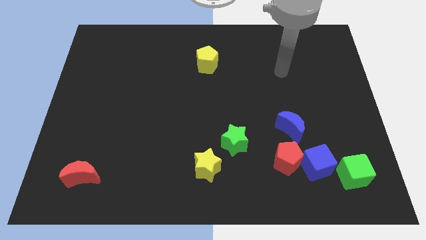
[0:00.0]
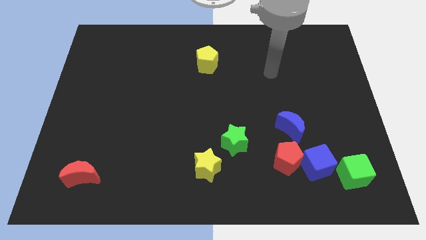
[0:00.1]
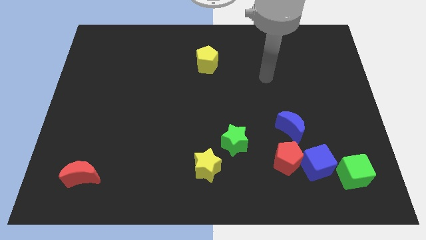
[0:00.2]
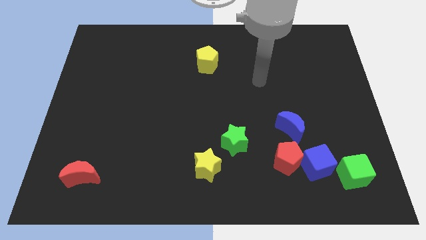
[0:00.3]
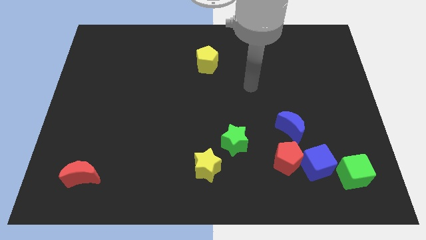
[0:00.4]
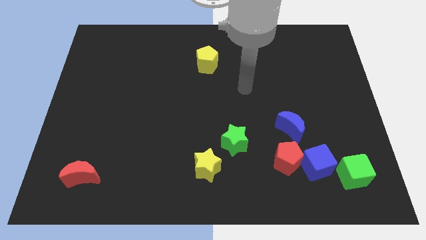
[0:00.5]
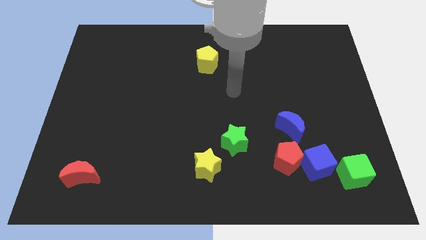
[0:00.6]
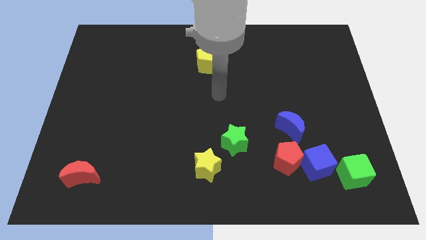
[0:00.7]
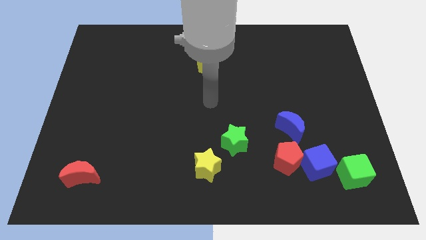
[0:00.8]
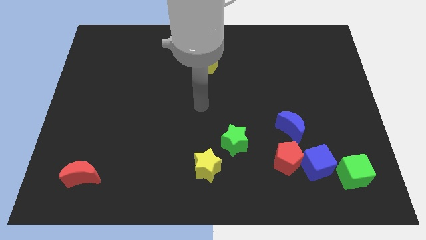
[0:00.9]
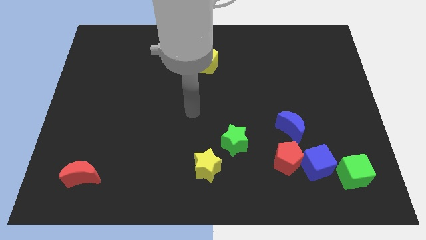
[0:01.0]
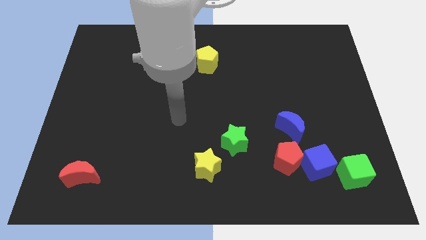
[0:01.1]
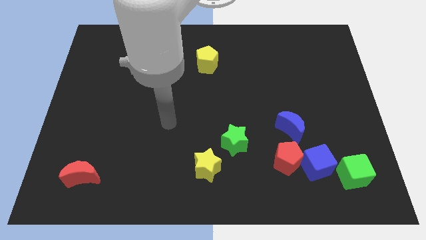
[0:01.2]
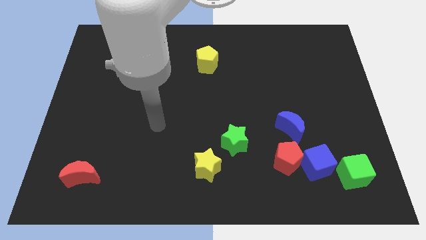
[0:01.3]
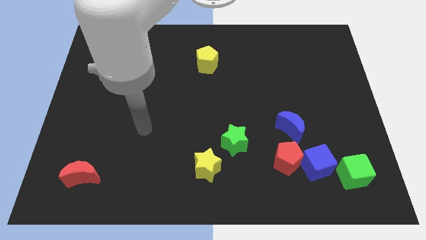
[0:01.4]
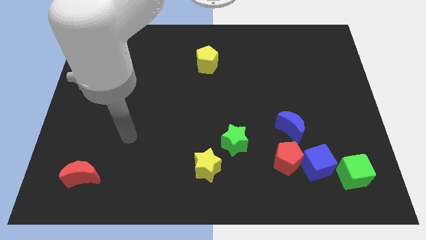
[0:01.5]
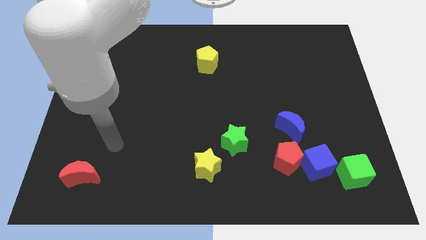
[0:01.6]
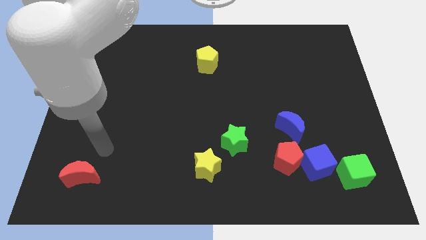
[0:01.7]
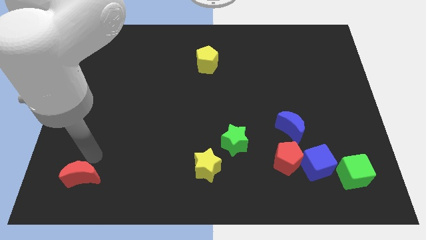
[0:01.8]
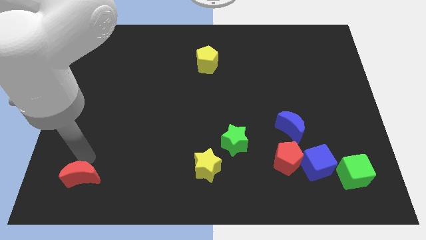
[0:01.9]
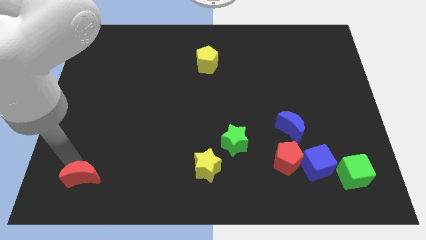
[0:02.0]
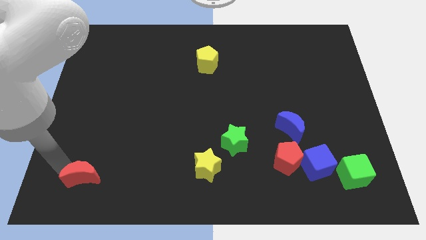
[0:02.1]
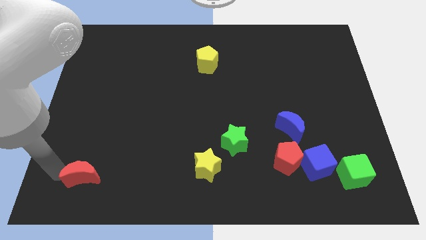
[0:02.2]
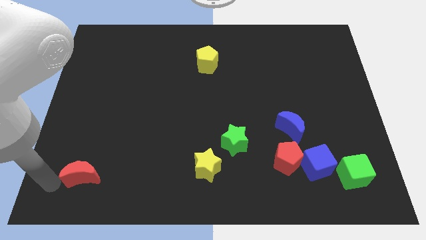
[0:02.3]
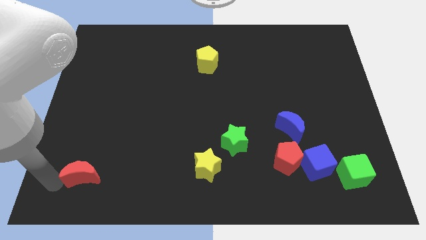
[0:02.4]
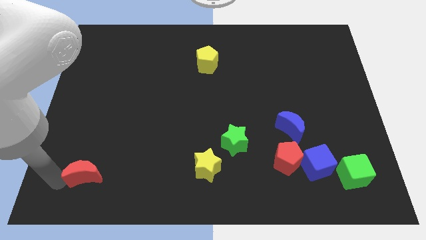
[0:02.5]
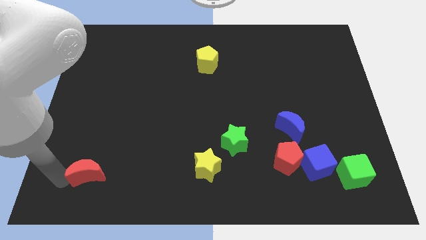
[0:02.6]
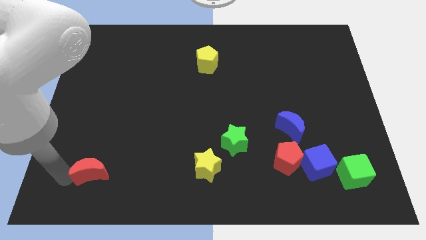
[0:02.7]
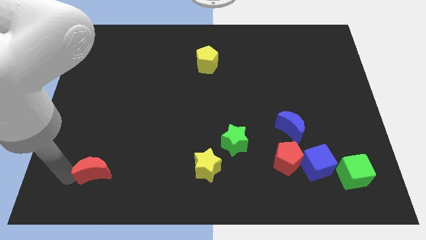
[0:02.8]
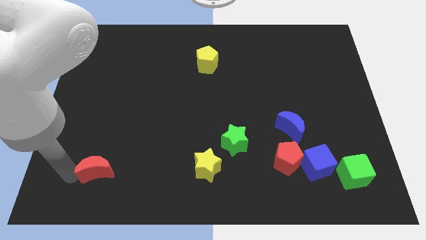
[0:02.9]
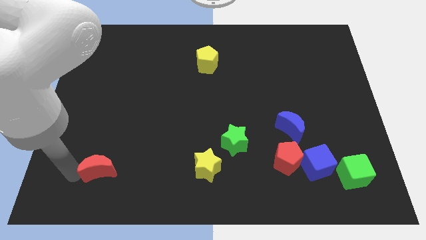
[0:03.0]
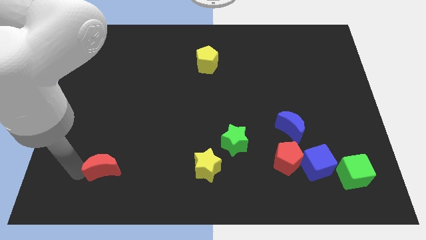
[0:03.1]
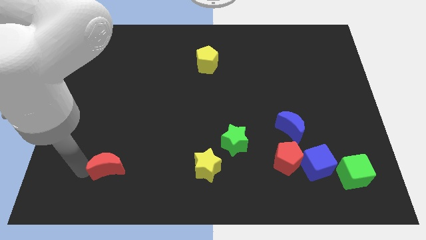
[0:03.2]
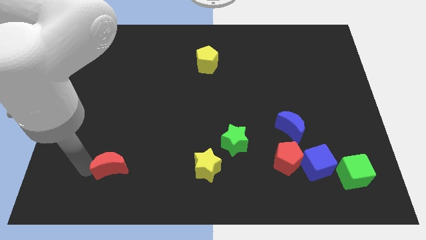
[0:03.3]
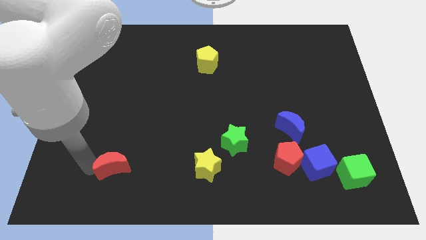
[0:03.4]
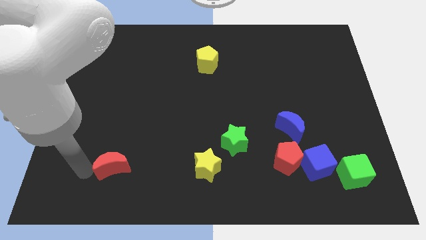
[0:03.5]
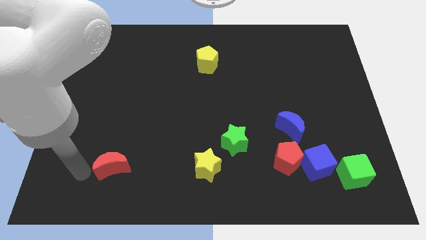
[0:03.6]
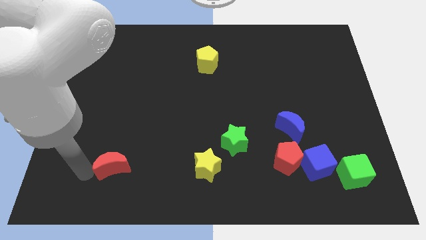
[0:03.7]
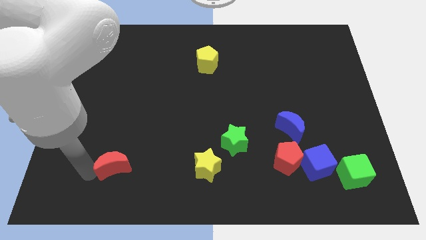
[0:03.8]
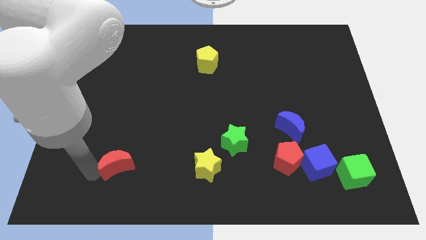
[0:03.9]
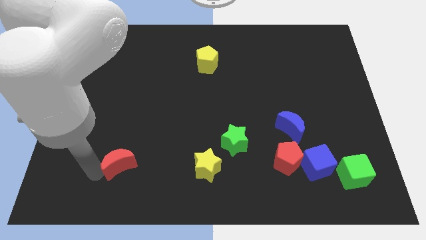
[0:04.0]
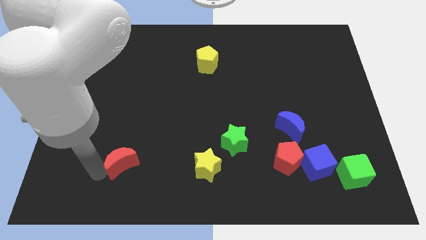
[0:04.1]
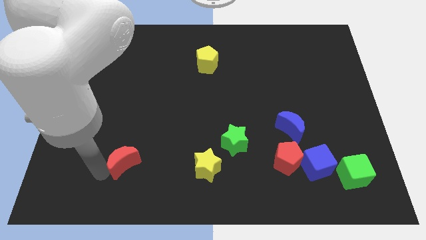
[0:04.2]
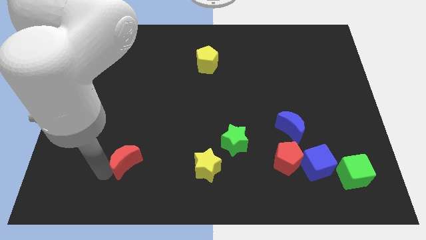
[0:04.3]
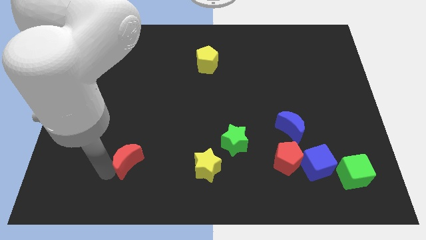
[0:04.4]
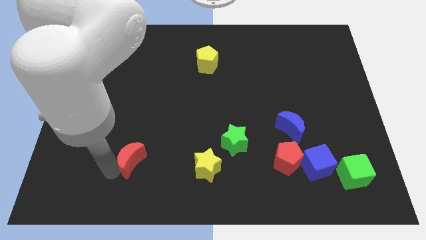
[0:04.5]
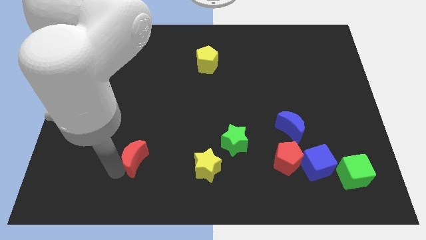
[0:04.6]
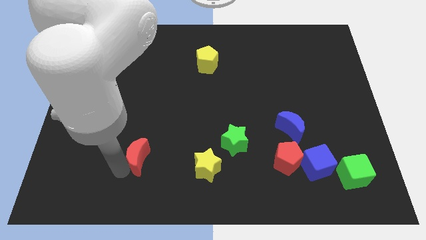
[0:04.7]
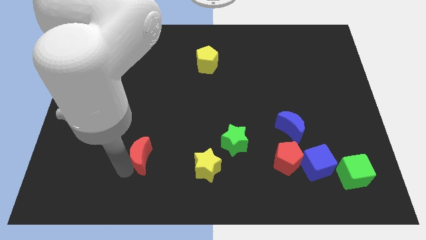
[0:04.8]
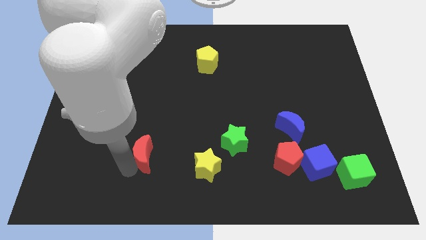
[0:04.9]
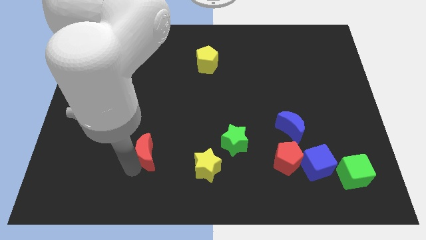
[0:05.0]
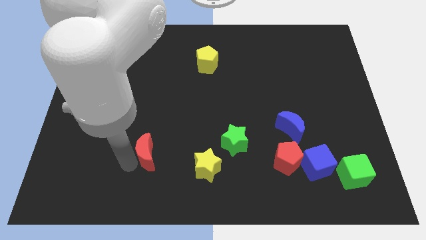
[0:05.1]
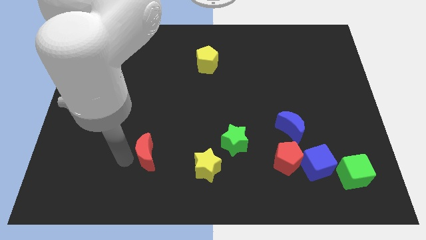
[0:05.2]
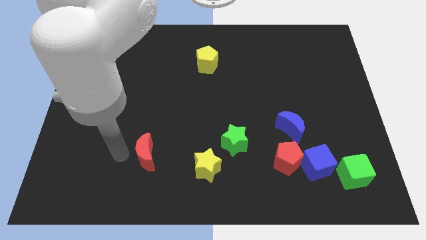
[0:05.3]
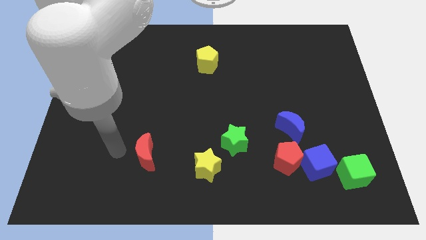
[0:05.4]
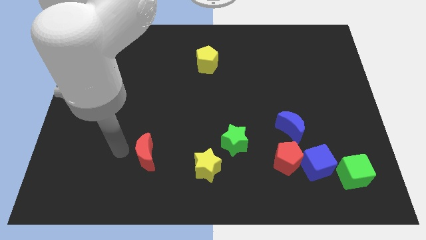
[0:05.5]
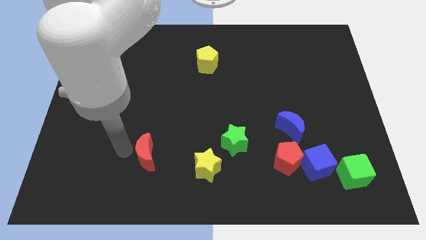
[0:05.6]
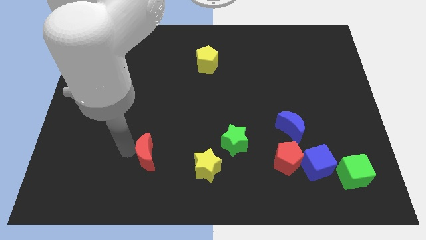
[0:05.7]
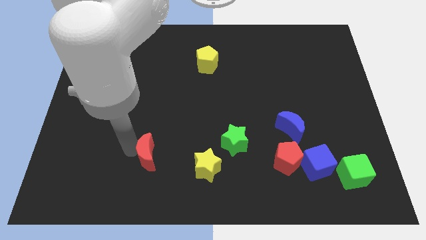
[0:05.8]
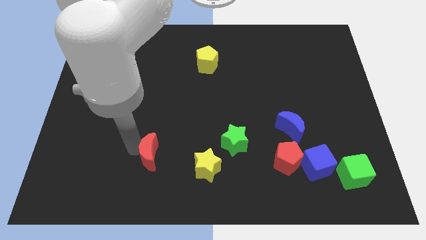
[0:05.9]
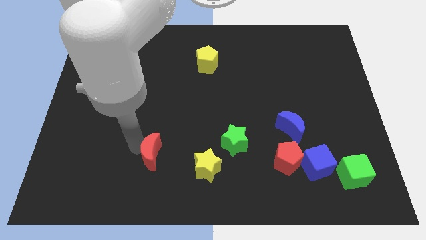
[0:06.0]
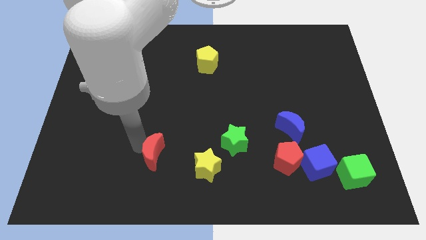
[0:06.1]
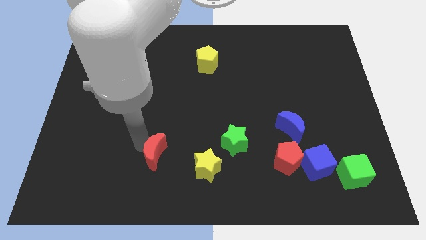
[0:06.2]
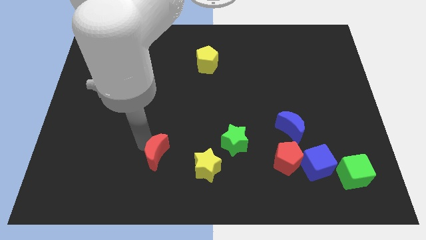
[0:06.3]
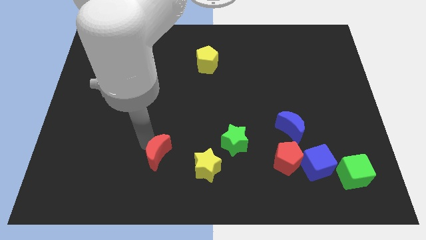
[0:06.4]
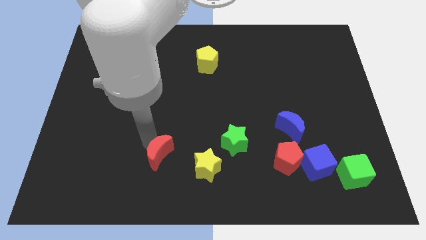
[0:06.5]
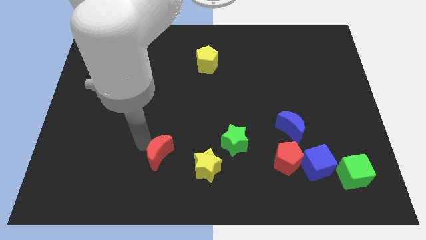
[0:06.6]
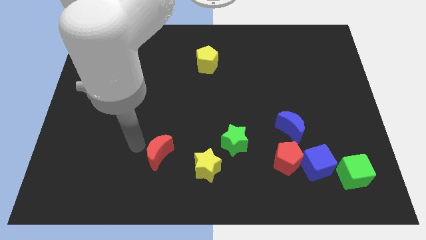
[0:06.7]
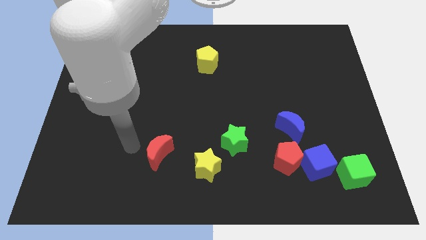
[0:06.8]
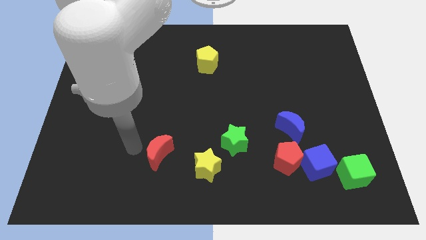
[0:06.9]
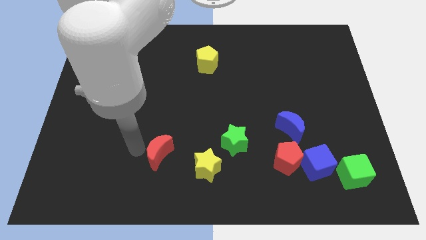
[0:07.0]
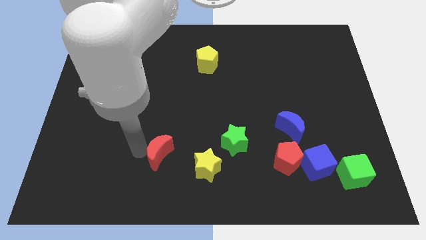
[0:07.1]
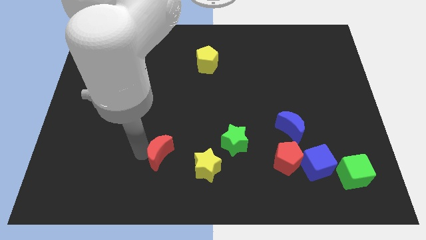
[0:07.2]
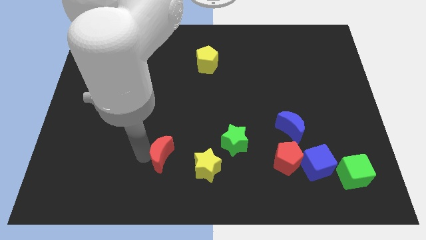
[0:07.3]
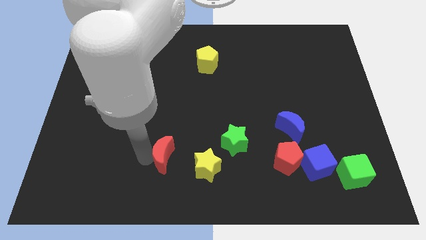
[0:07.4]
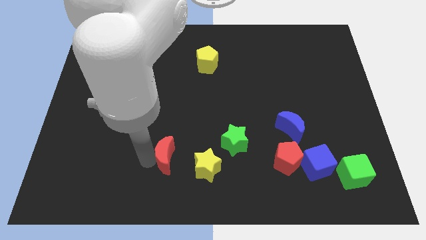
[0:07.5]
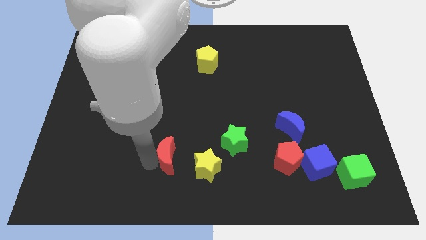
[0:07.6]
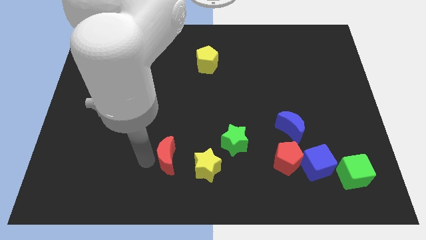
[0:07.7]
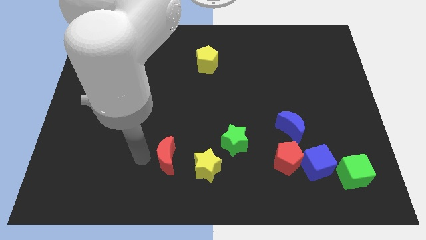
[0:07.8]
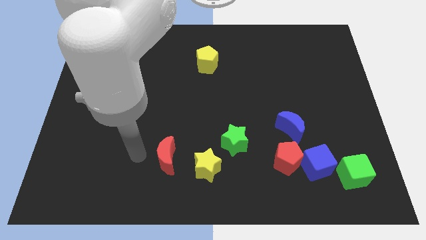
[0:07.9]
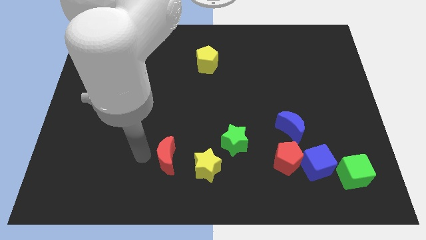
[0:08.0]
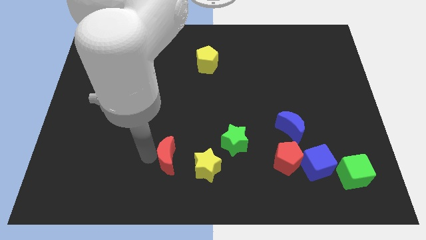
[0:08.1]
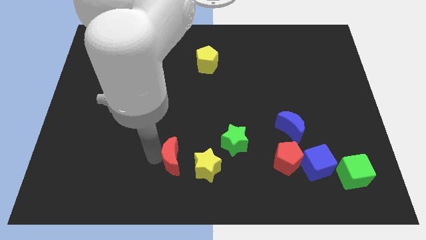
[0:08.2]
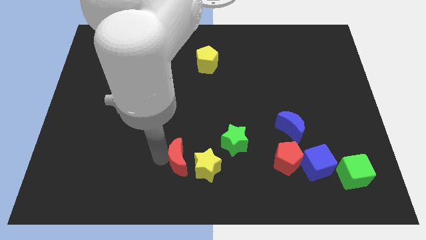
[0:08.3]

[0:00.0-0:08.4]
slide the red moon to the yellow star
